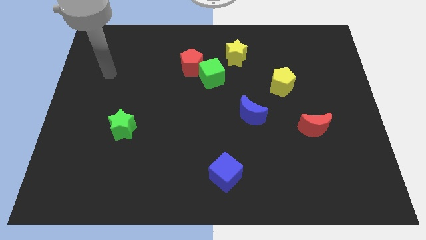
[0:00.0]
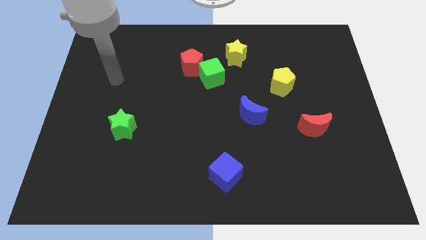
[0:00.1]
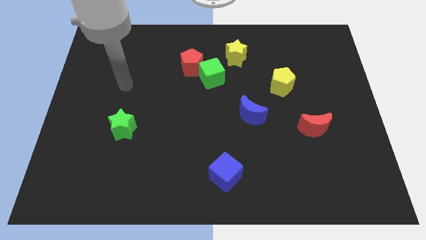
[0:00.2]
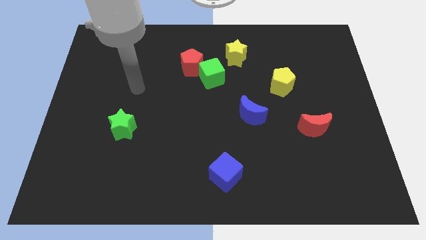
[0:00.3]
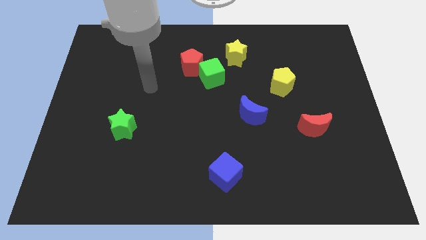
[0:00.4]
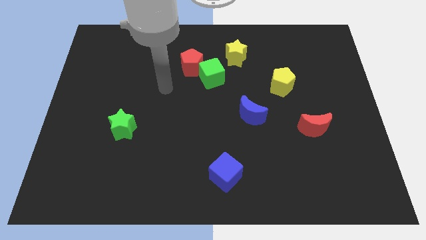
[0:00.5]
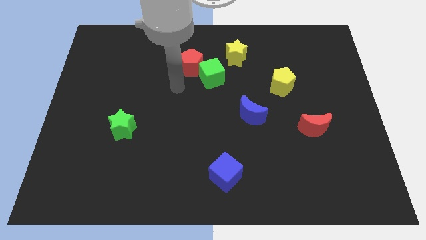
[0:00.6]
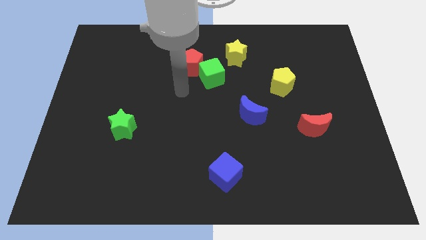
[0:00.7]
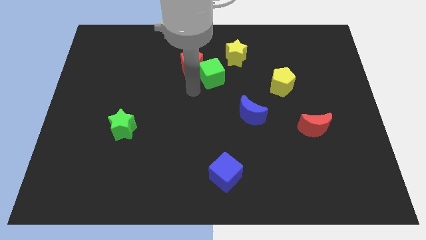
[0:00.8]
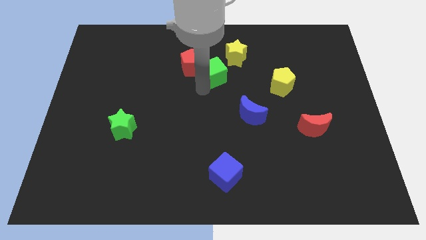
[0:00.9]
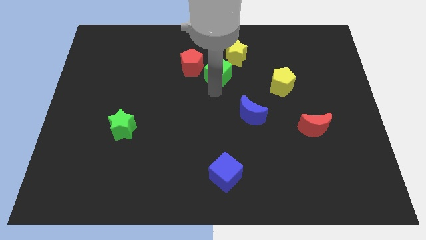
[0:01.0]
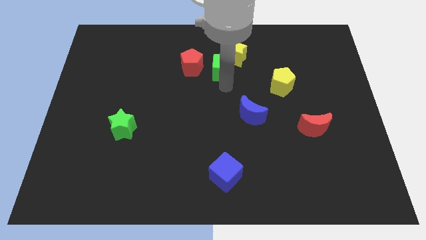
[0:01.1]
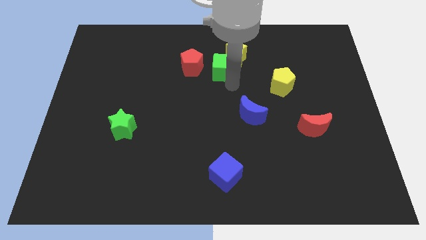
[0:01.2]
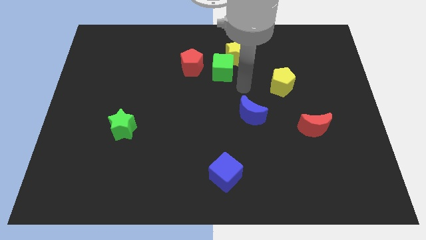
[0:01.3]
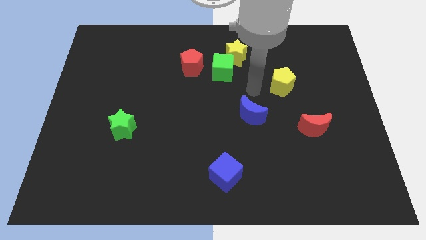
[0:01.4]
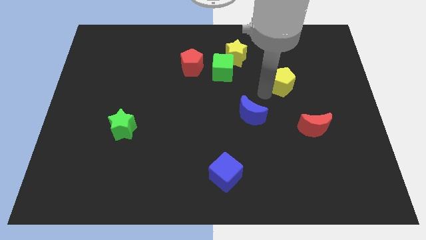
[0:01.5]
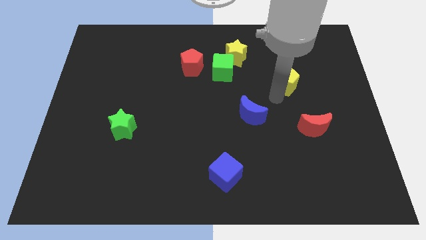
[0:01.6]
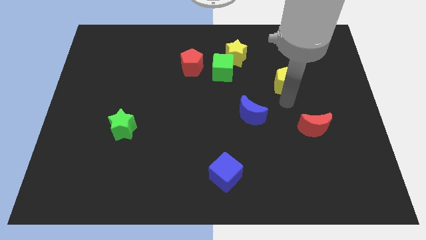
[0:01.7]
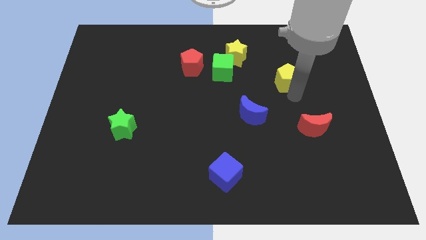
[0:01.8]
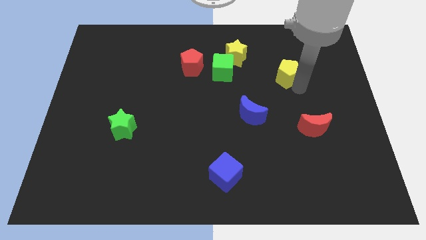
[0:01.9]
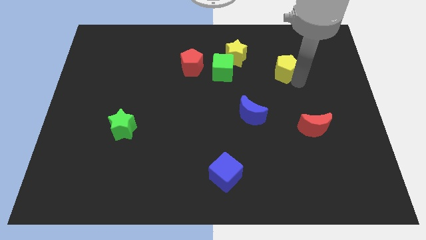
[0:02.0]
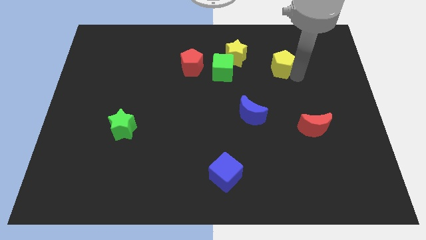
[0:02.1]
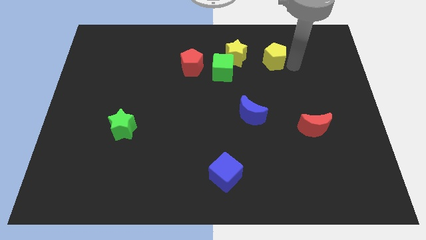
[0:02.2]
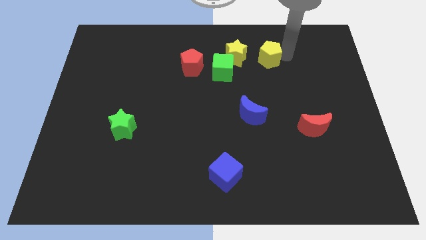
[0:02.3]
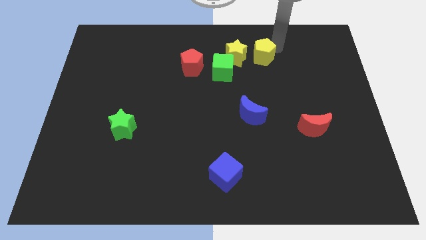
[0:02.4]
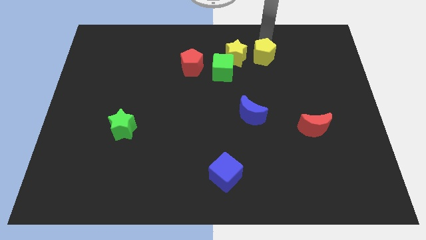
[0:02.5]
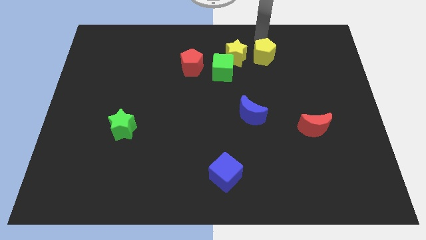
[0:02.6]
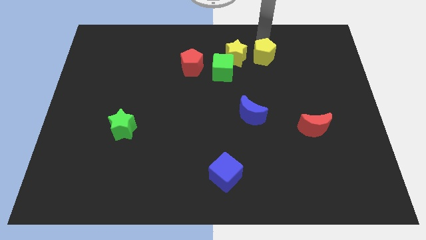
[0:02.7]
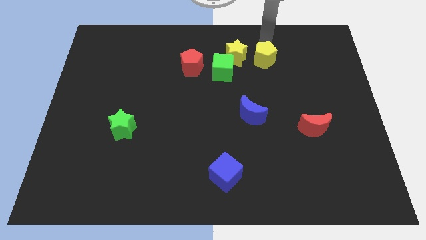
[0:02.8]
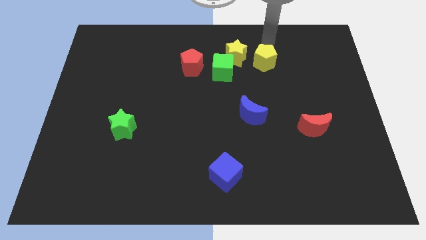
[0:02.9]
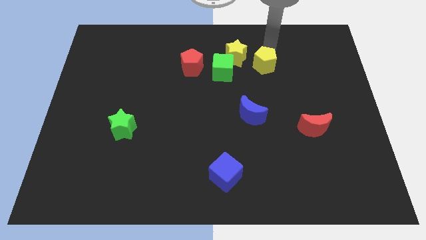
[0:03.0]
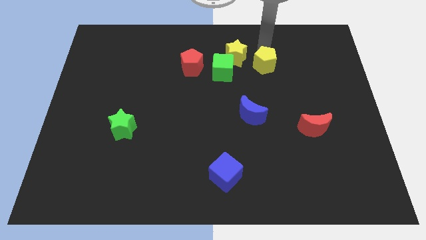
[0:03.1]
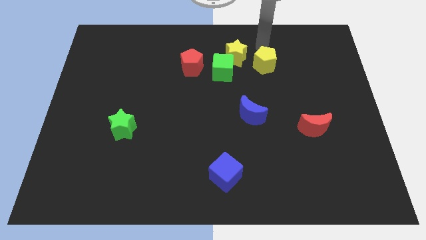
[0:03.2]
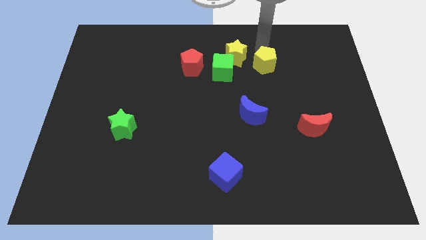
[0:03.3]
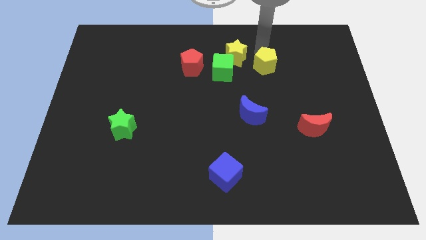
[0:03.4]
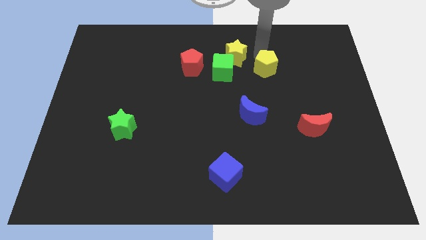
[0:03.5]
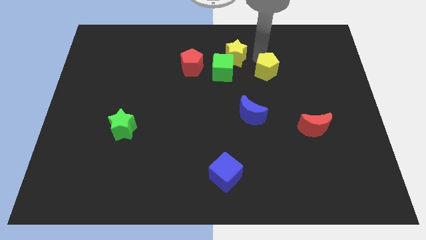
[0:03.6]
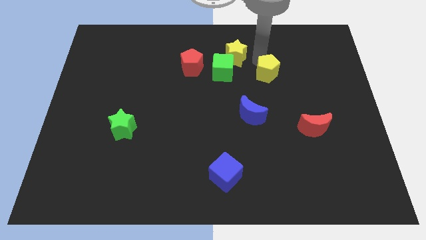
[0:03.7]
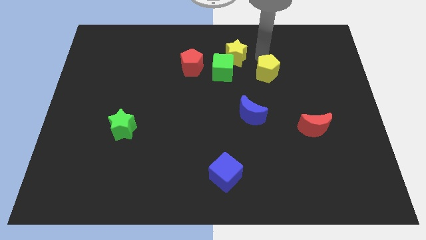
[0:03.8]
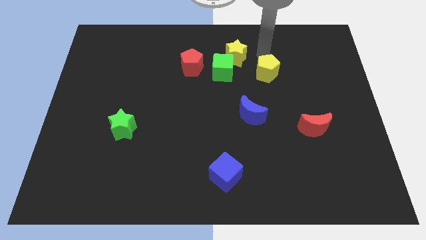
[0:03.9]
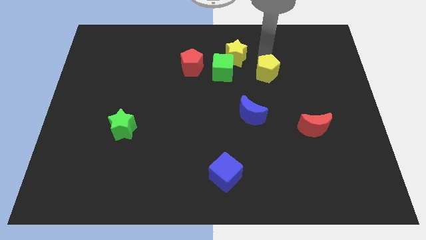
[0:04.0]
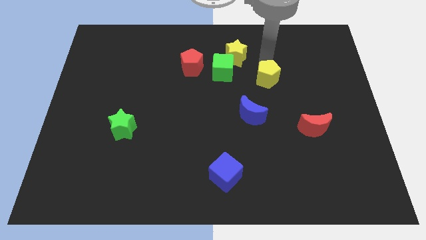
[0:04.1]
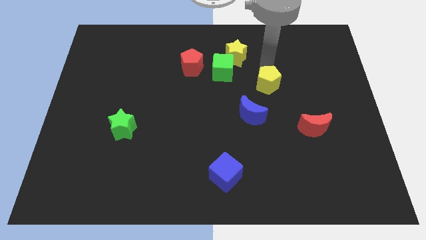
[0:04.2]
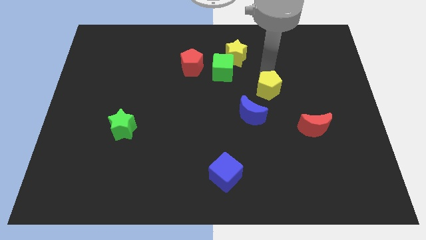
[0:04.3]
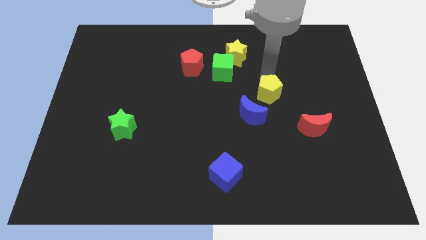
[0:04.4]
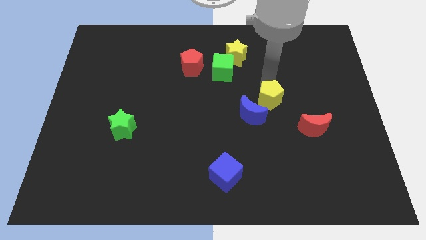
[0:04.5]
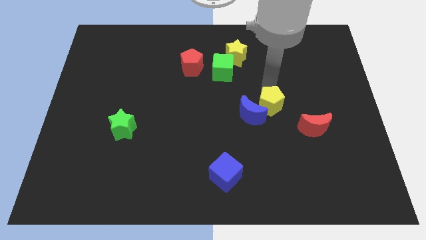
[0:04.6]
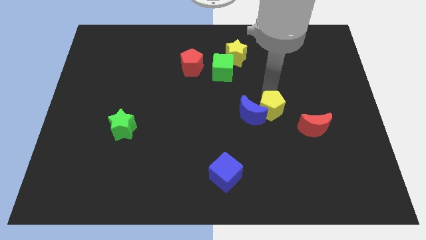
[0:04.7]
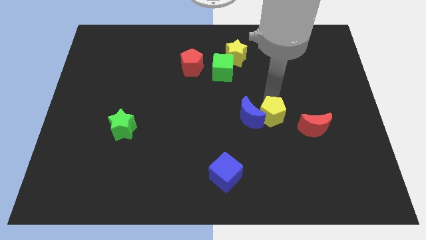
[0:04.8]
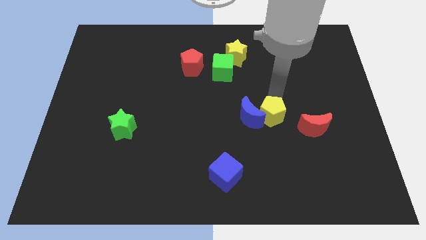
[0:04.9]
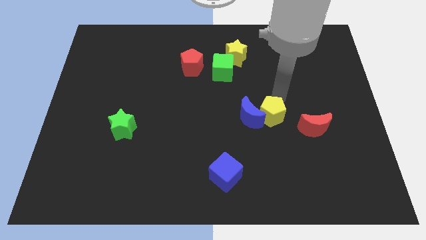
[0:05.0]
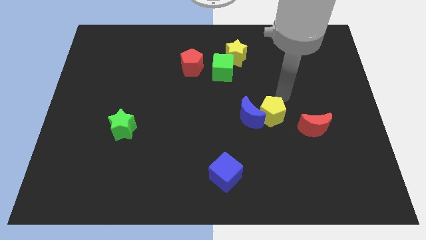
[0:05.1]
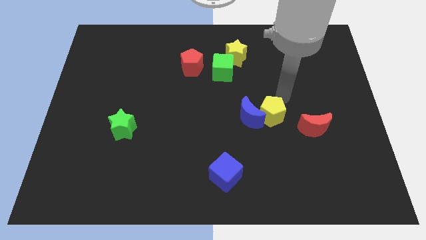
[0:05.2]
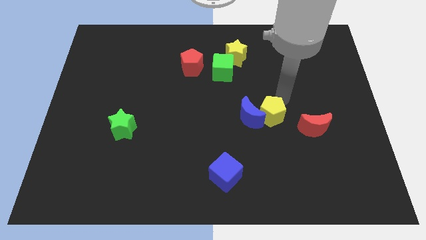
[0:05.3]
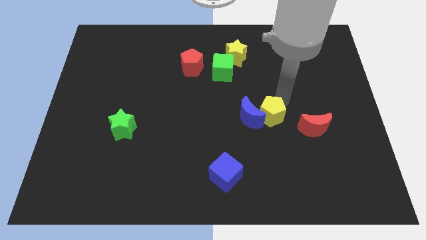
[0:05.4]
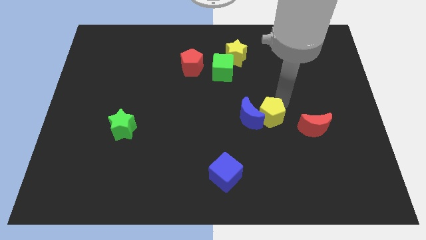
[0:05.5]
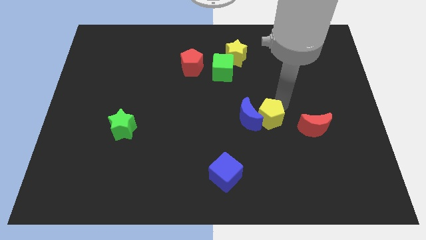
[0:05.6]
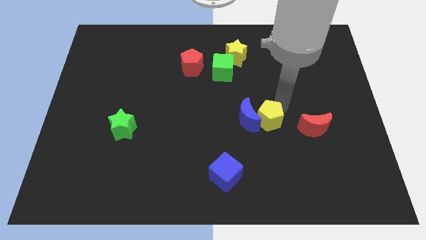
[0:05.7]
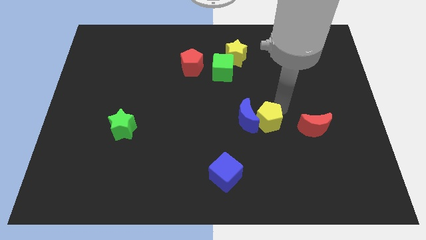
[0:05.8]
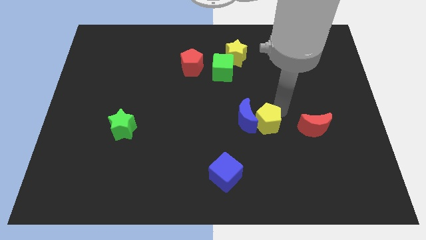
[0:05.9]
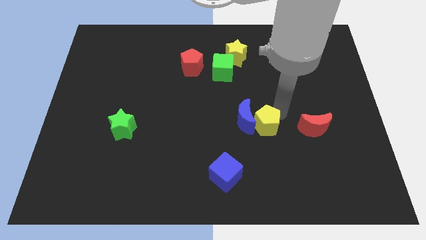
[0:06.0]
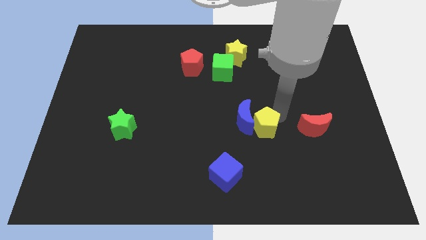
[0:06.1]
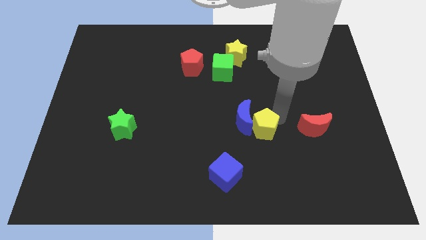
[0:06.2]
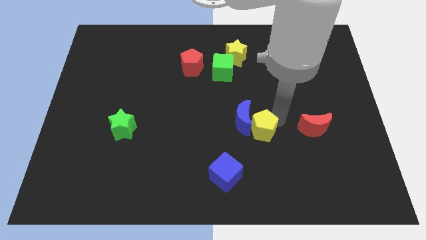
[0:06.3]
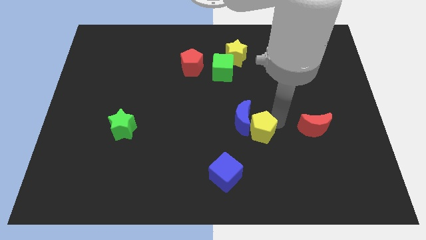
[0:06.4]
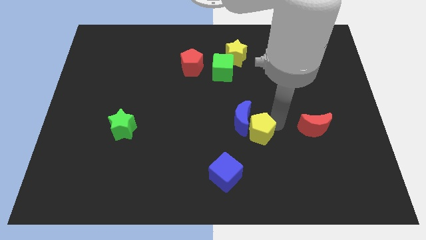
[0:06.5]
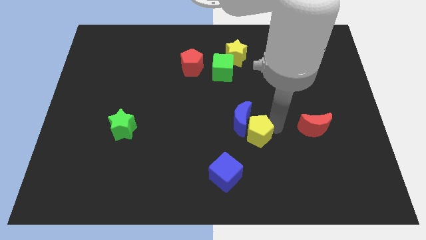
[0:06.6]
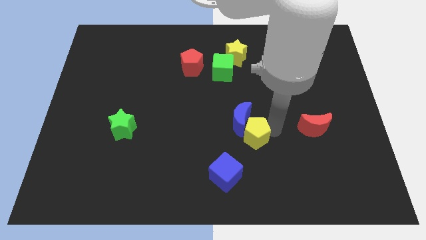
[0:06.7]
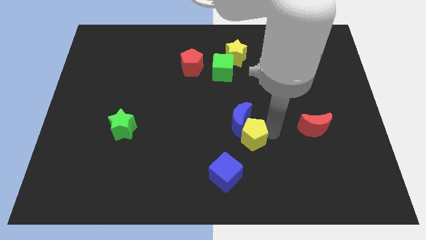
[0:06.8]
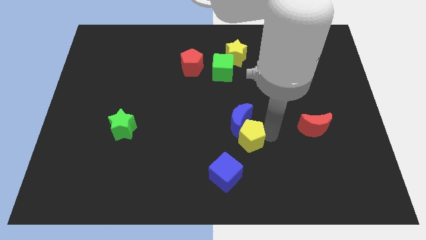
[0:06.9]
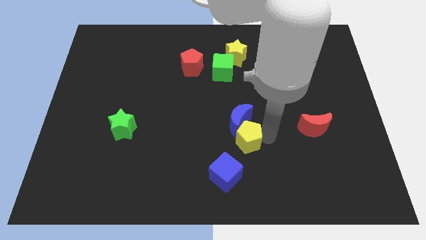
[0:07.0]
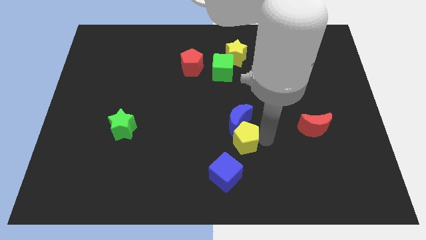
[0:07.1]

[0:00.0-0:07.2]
slide the yellow pentagon to the top of the blue cube

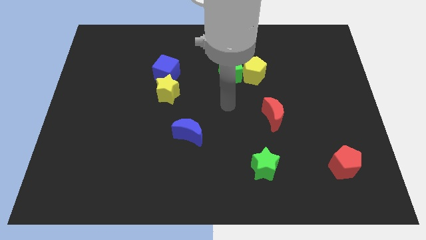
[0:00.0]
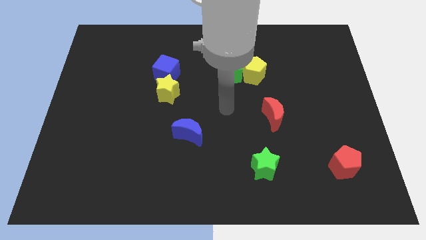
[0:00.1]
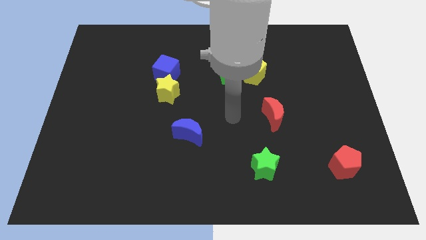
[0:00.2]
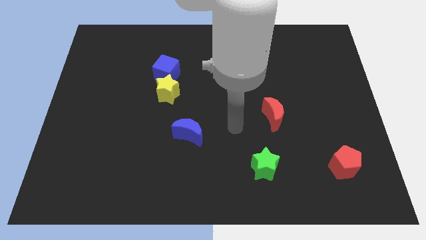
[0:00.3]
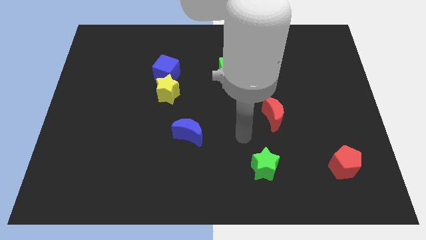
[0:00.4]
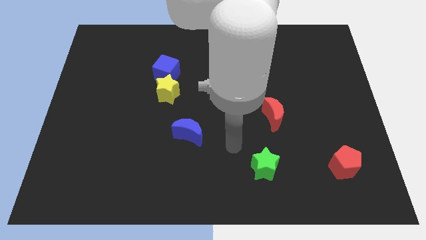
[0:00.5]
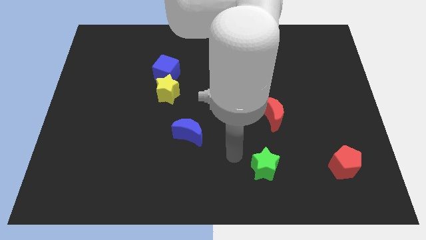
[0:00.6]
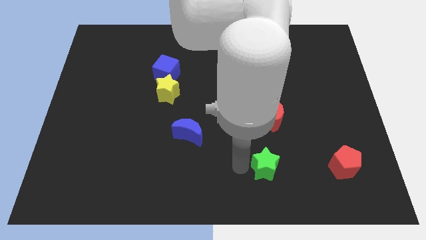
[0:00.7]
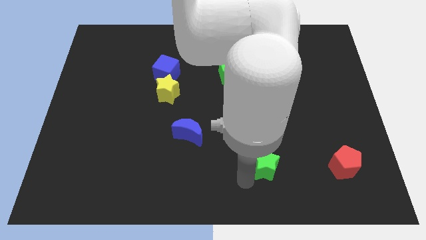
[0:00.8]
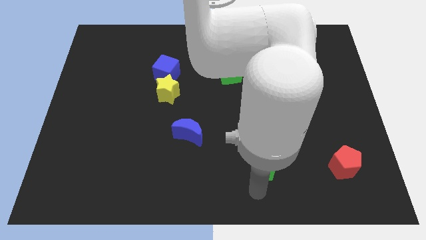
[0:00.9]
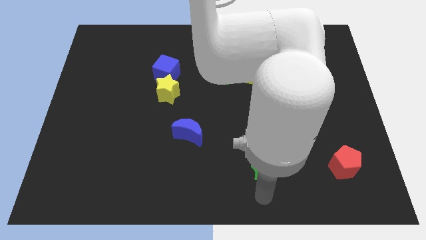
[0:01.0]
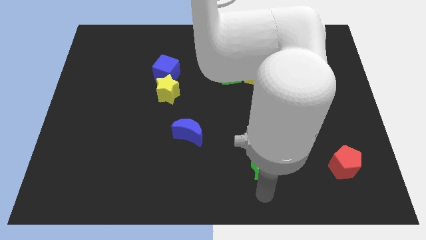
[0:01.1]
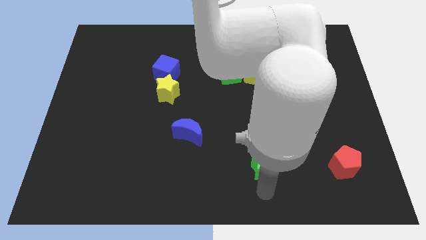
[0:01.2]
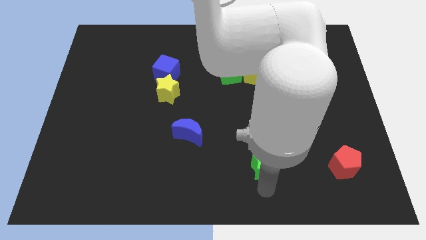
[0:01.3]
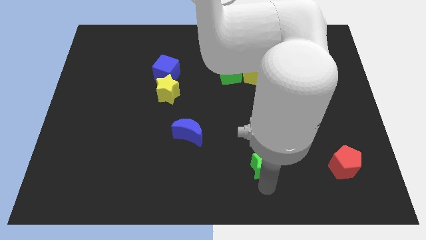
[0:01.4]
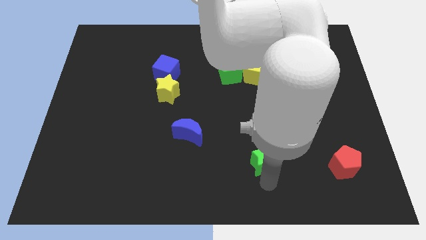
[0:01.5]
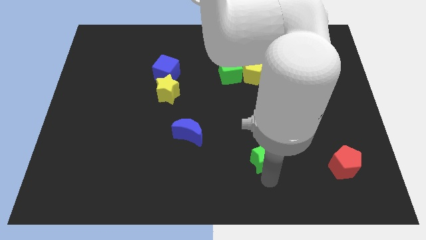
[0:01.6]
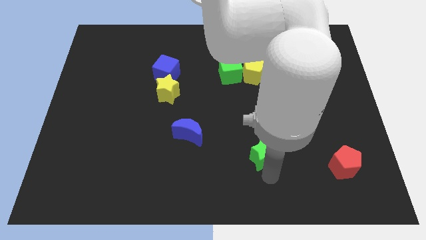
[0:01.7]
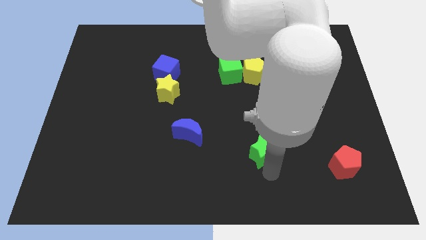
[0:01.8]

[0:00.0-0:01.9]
put the green star diagonally down and to the left of the red moon
